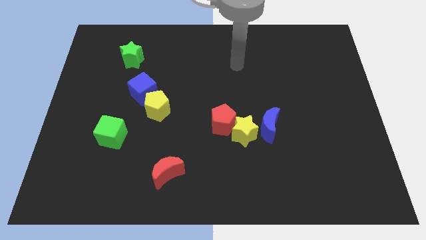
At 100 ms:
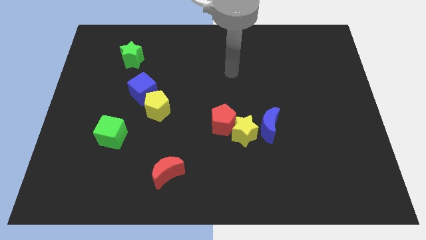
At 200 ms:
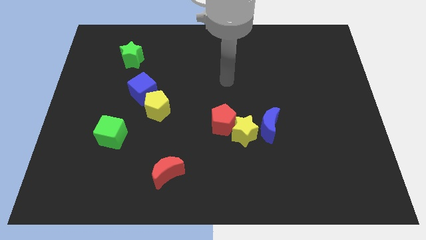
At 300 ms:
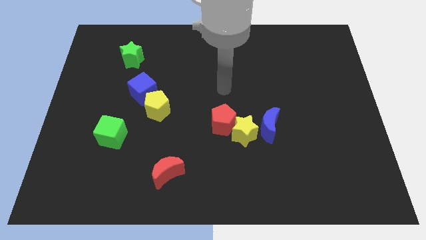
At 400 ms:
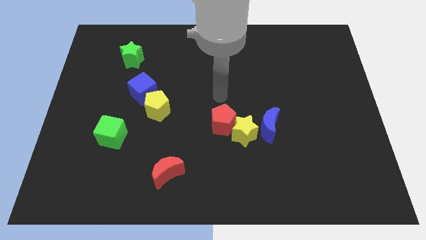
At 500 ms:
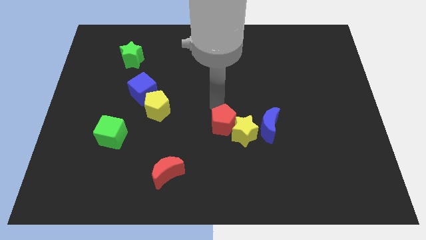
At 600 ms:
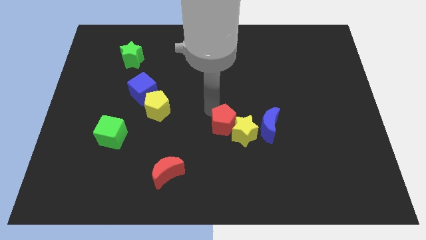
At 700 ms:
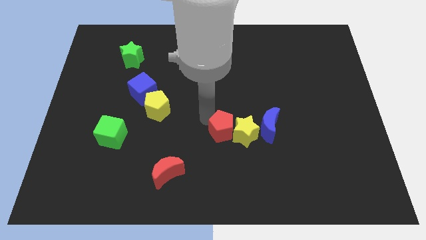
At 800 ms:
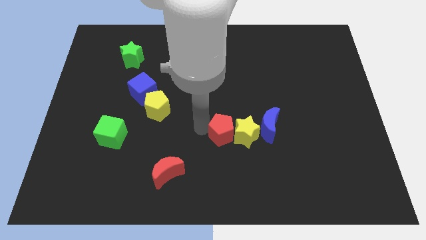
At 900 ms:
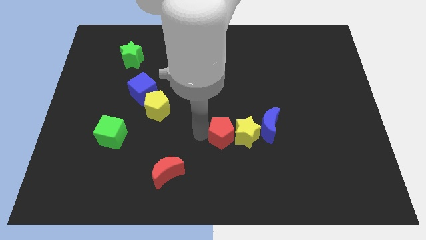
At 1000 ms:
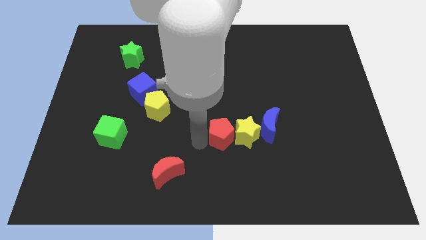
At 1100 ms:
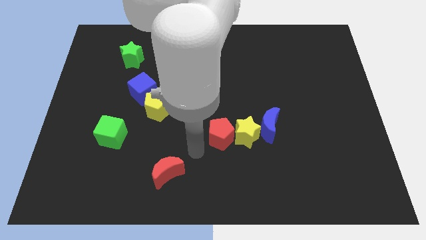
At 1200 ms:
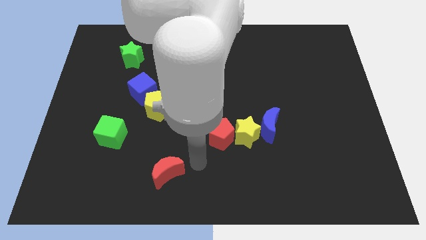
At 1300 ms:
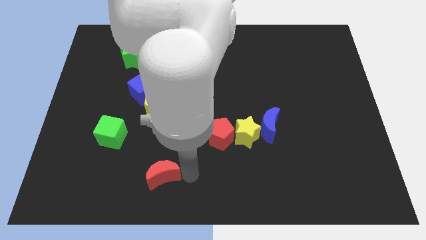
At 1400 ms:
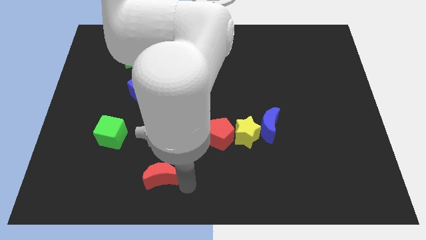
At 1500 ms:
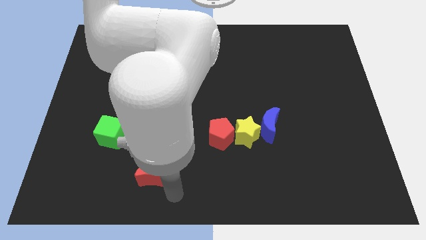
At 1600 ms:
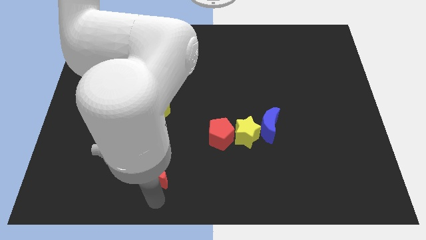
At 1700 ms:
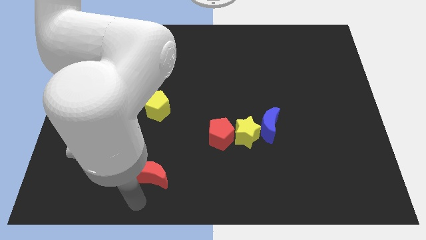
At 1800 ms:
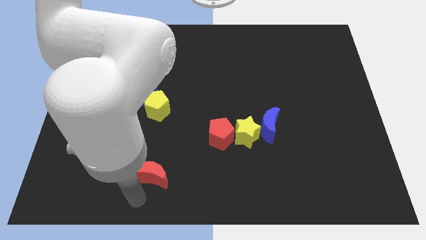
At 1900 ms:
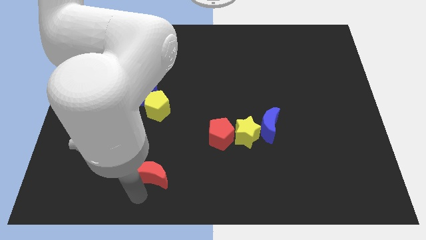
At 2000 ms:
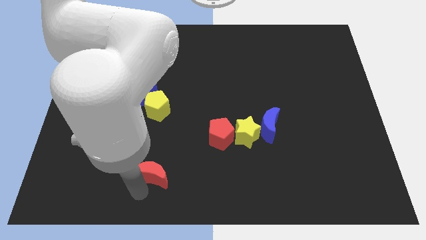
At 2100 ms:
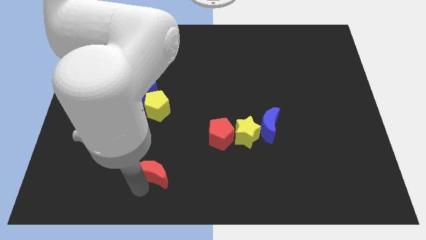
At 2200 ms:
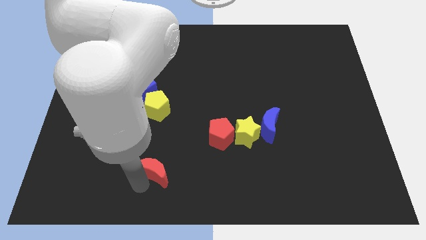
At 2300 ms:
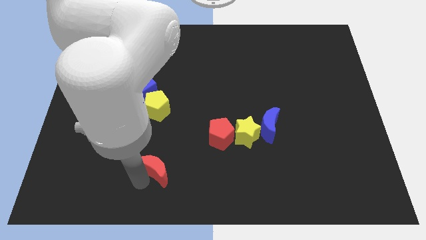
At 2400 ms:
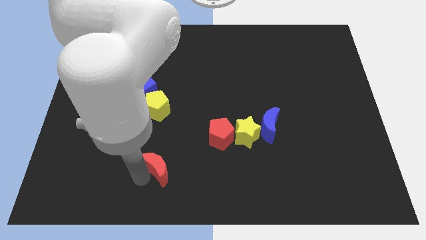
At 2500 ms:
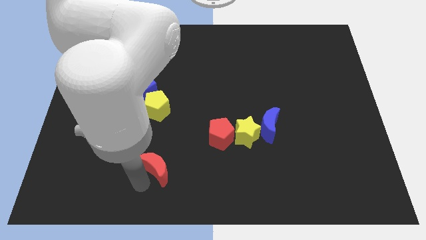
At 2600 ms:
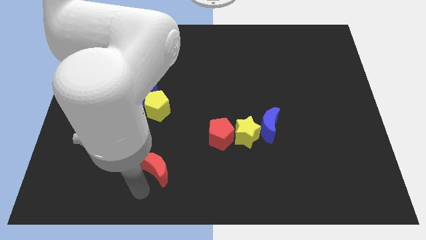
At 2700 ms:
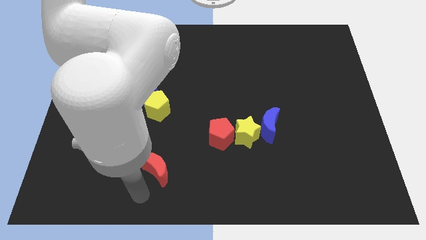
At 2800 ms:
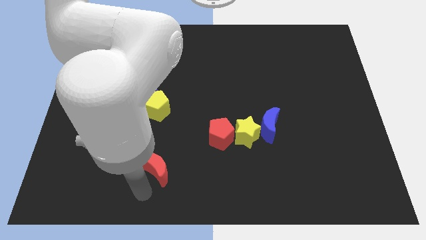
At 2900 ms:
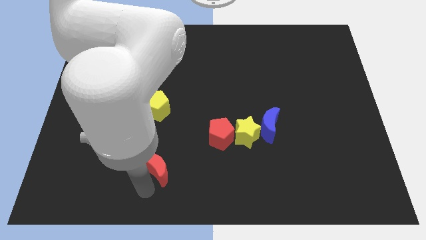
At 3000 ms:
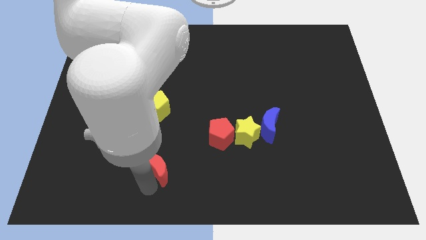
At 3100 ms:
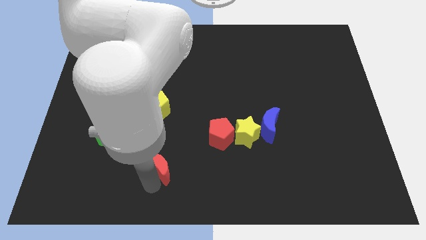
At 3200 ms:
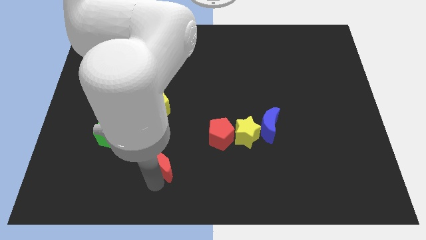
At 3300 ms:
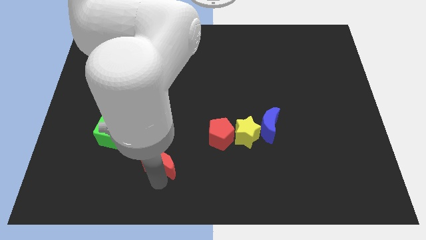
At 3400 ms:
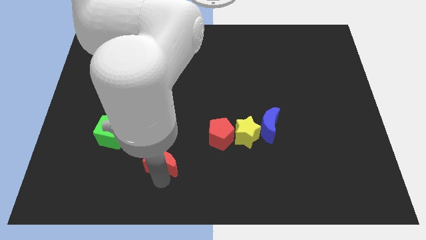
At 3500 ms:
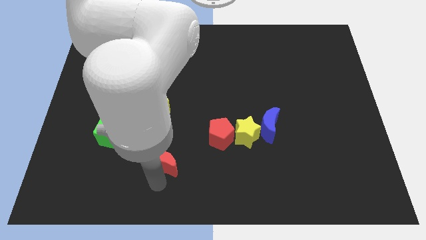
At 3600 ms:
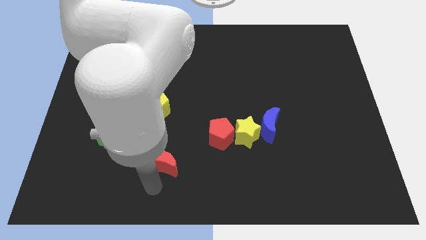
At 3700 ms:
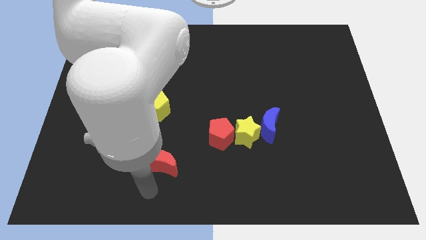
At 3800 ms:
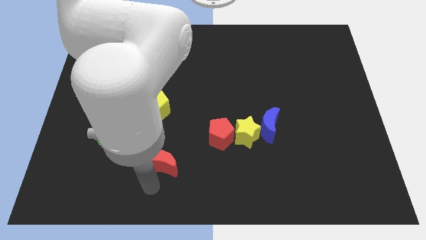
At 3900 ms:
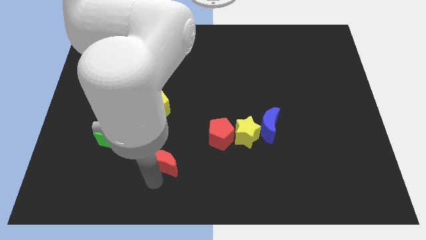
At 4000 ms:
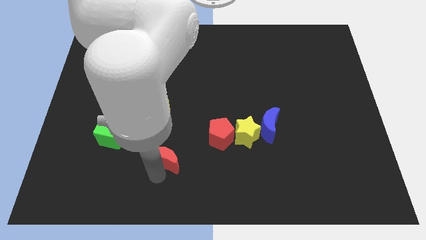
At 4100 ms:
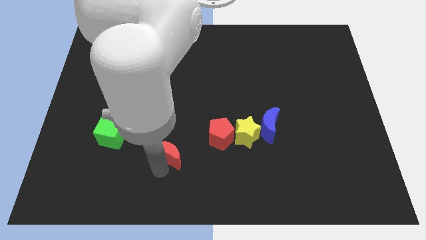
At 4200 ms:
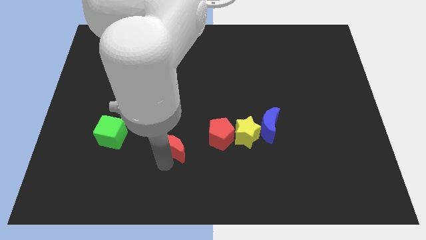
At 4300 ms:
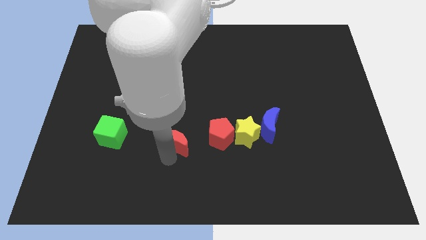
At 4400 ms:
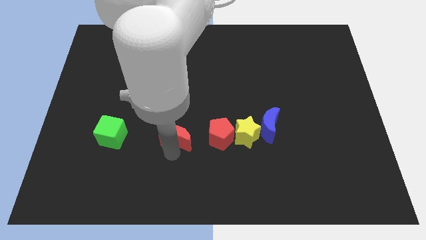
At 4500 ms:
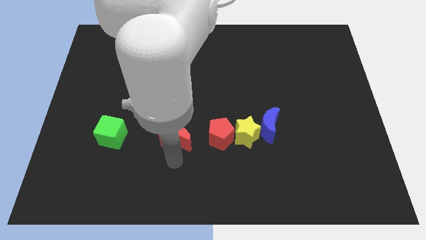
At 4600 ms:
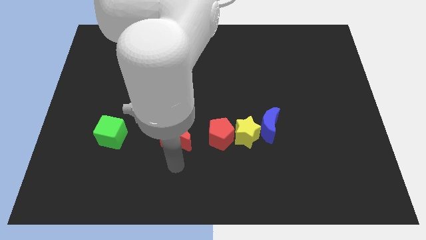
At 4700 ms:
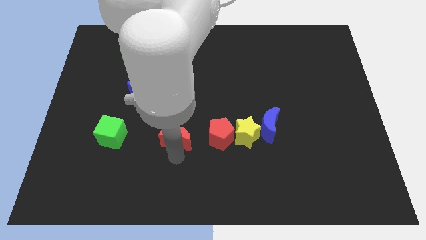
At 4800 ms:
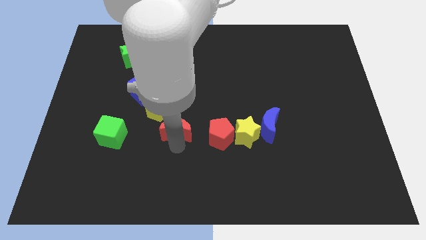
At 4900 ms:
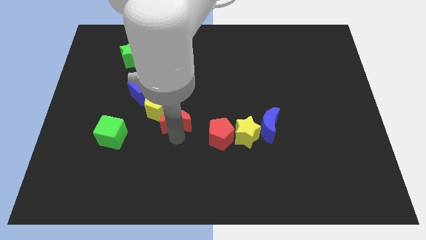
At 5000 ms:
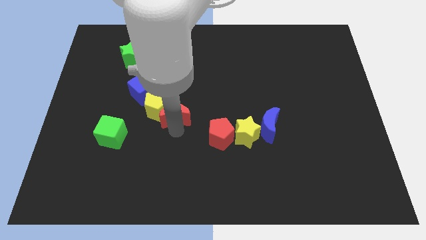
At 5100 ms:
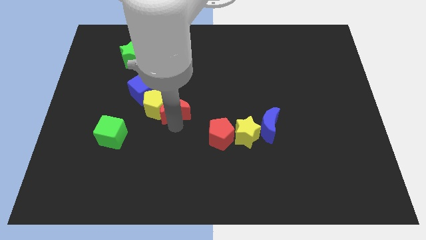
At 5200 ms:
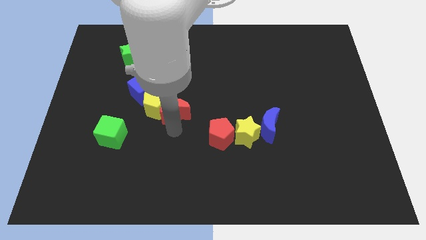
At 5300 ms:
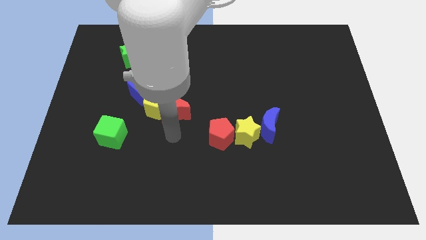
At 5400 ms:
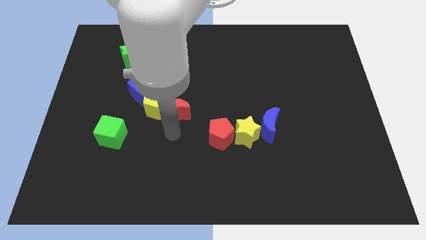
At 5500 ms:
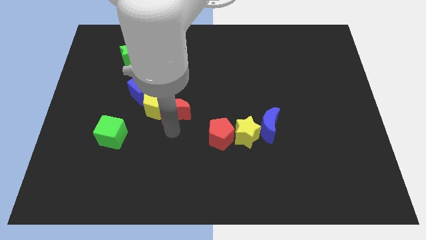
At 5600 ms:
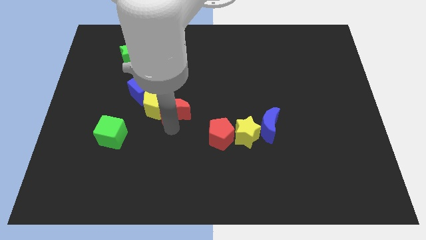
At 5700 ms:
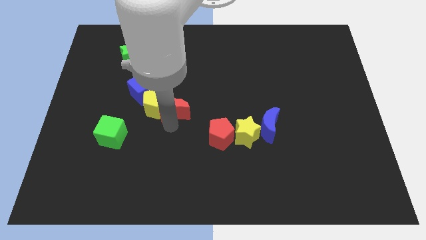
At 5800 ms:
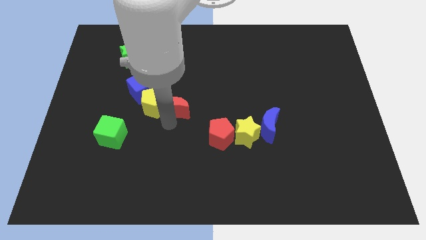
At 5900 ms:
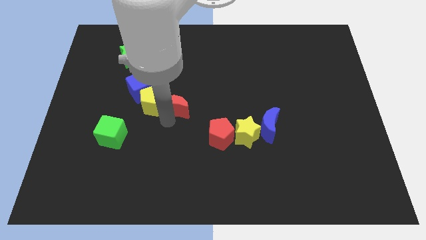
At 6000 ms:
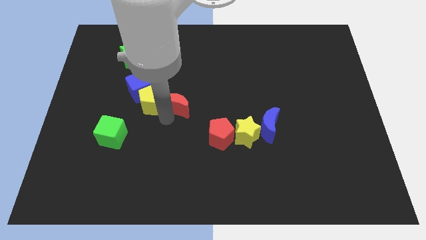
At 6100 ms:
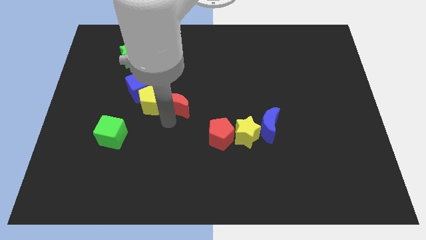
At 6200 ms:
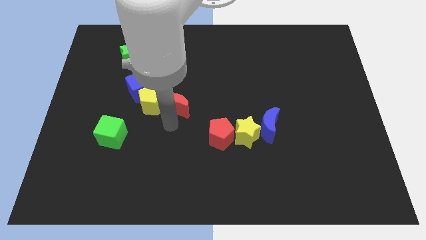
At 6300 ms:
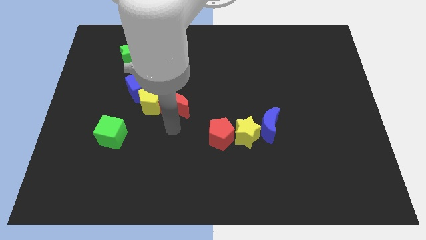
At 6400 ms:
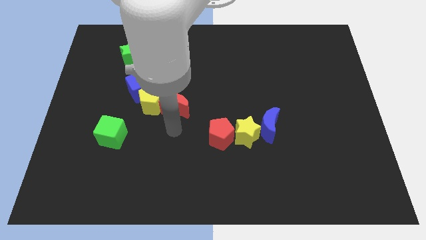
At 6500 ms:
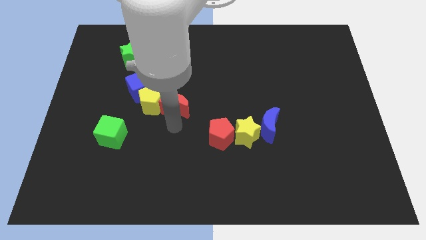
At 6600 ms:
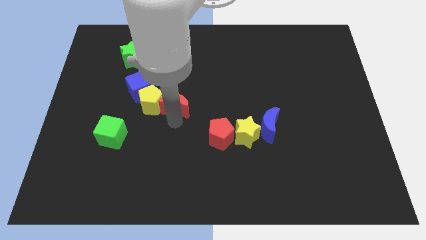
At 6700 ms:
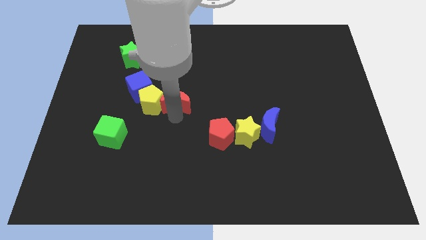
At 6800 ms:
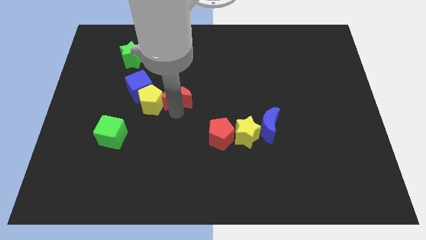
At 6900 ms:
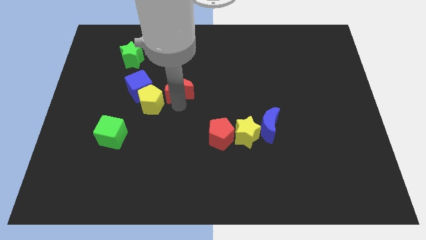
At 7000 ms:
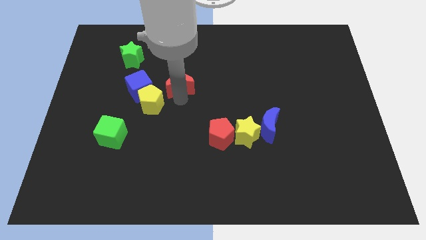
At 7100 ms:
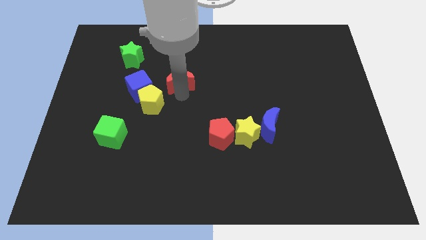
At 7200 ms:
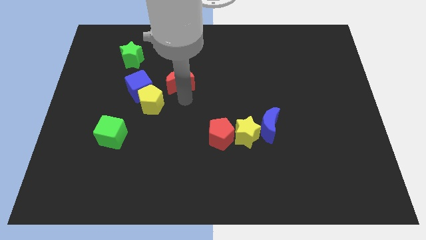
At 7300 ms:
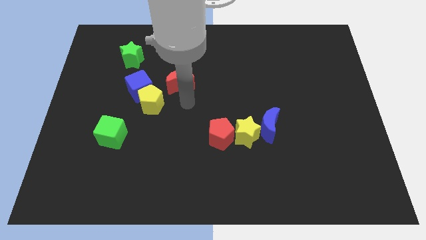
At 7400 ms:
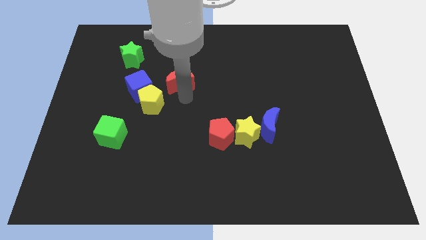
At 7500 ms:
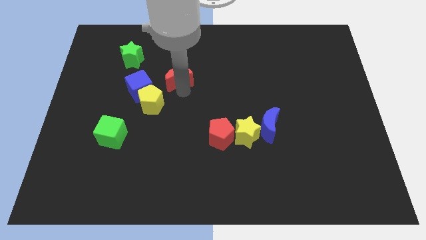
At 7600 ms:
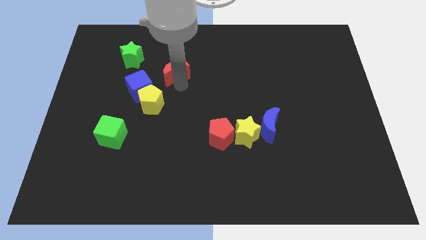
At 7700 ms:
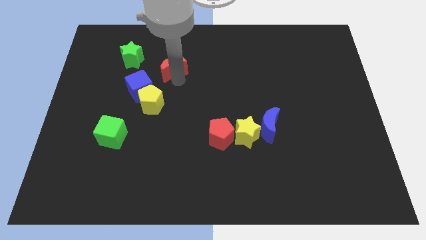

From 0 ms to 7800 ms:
push the red moon just right of the green star
